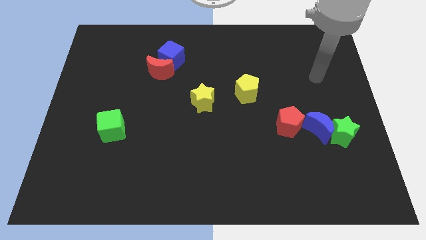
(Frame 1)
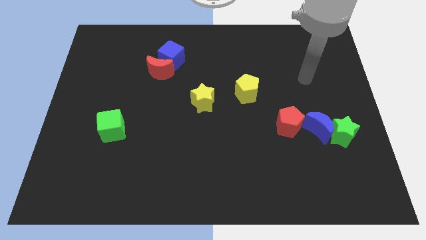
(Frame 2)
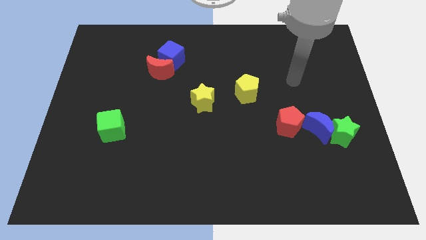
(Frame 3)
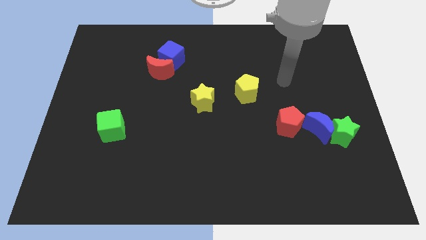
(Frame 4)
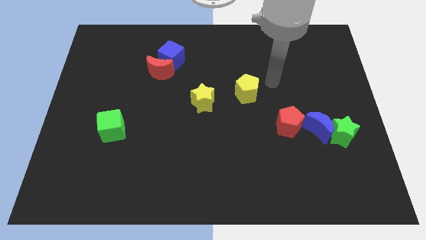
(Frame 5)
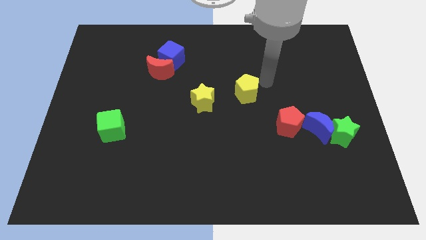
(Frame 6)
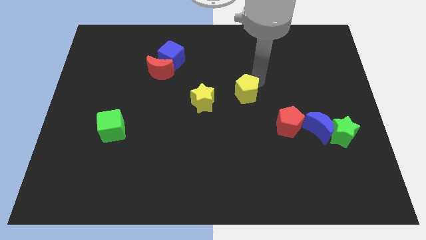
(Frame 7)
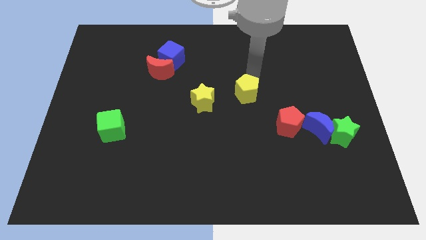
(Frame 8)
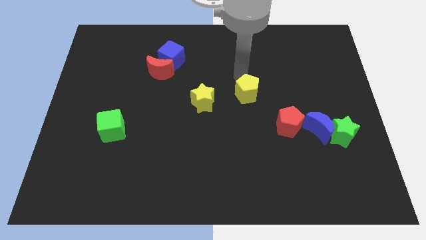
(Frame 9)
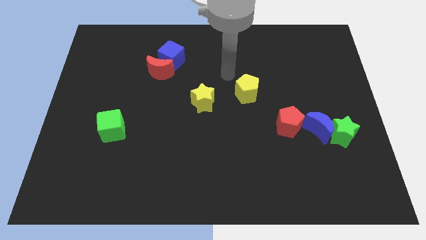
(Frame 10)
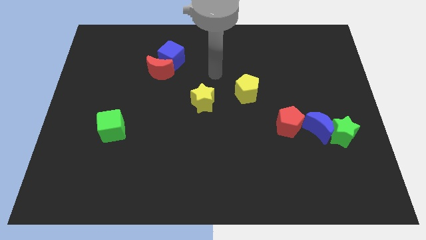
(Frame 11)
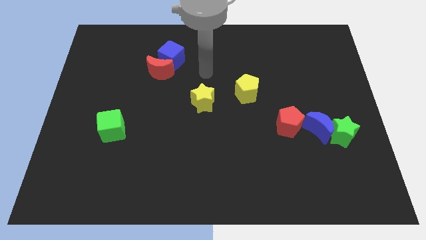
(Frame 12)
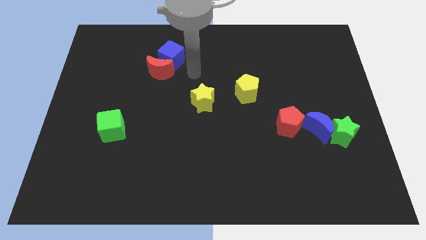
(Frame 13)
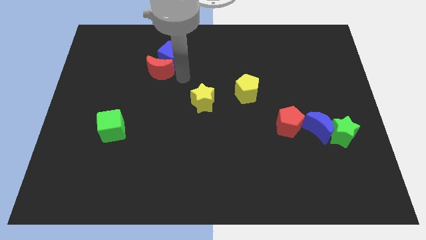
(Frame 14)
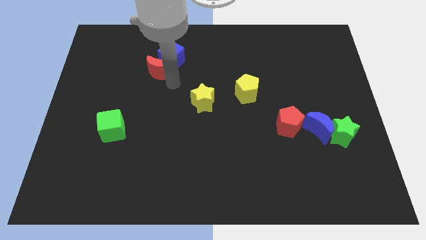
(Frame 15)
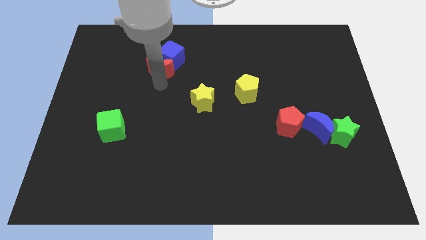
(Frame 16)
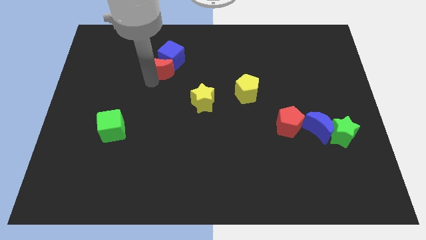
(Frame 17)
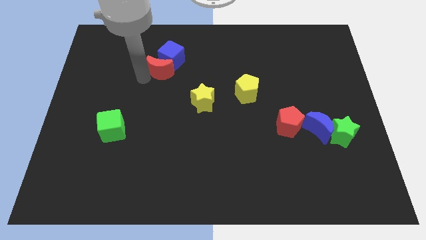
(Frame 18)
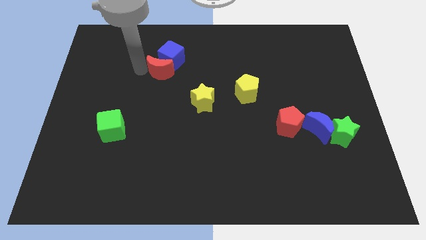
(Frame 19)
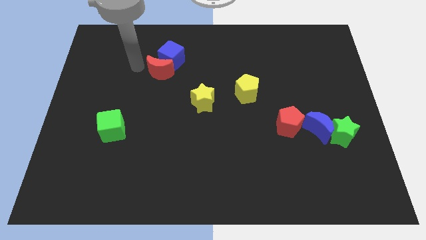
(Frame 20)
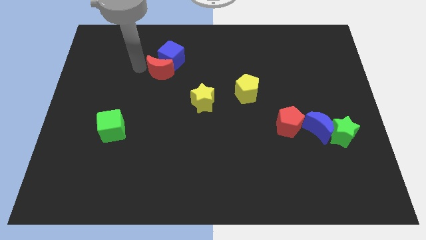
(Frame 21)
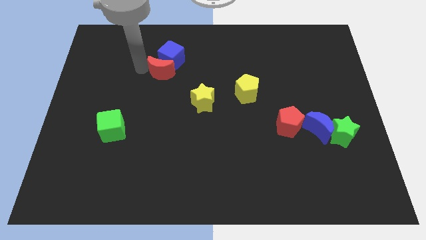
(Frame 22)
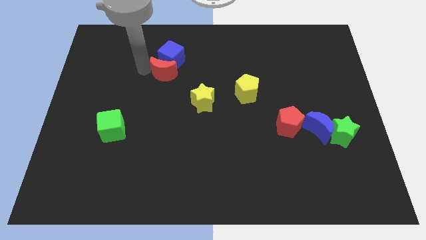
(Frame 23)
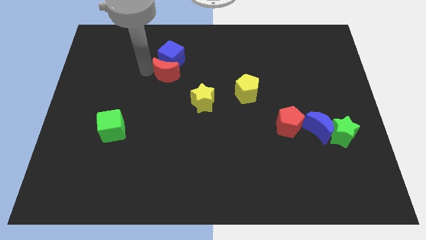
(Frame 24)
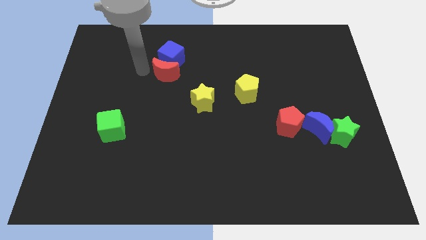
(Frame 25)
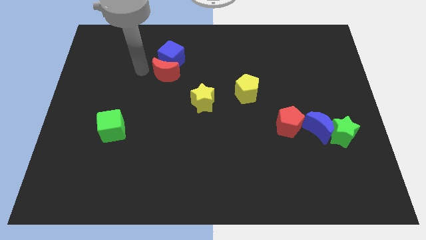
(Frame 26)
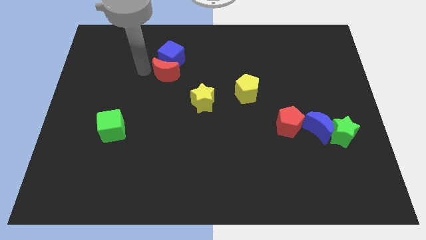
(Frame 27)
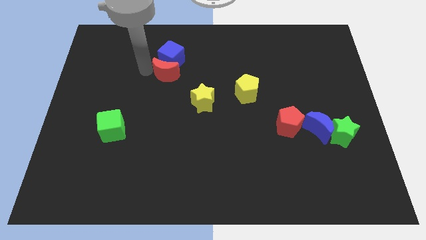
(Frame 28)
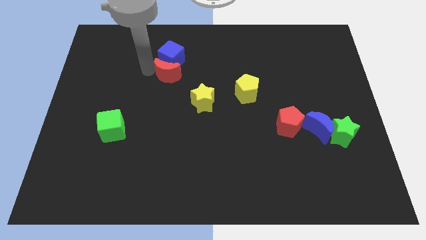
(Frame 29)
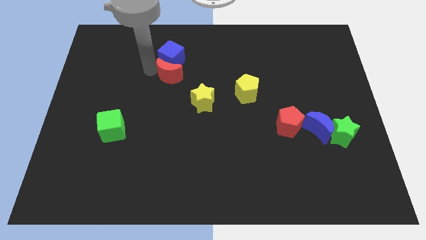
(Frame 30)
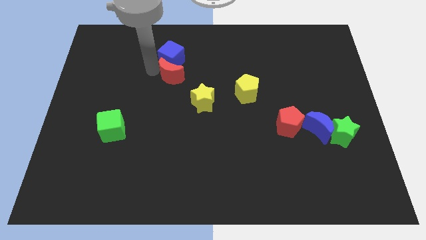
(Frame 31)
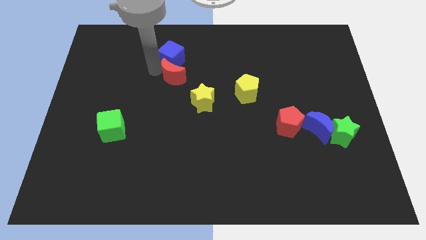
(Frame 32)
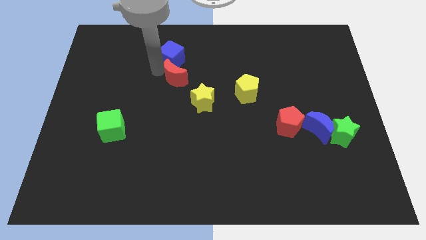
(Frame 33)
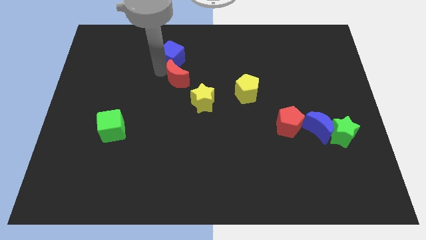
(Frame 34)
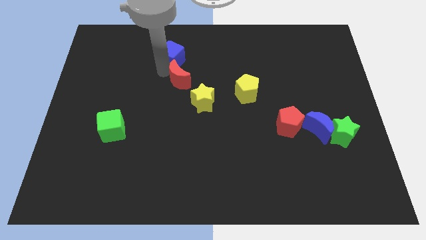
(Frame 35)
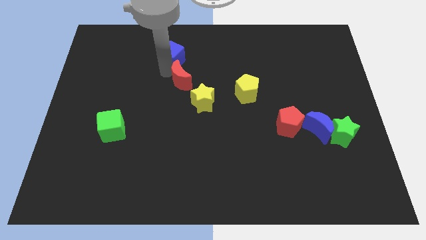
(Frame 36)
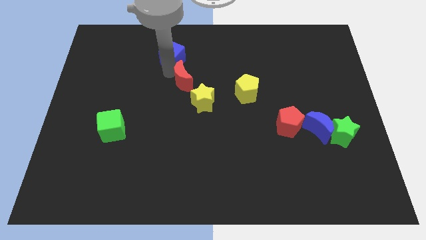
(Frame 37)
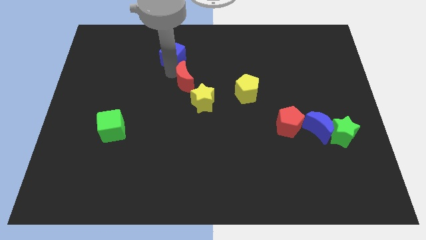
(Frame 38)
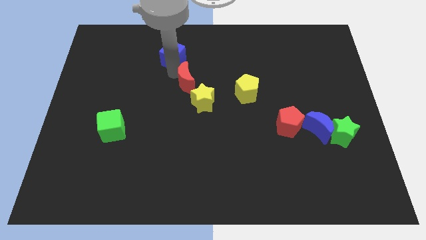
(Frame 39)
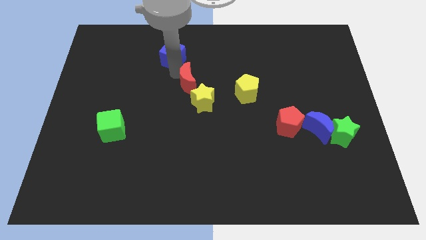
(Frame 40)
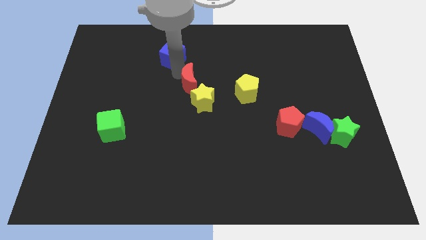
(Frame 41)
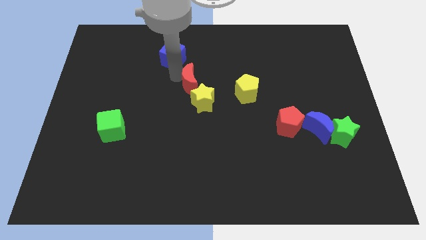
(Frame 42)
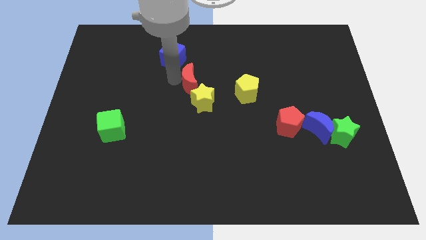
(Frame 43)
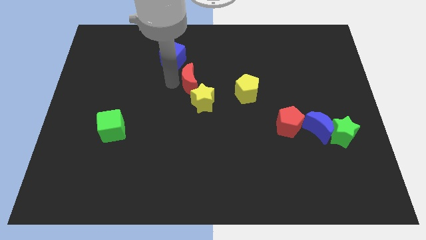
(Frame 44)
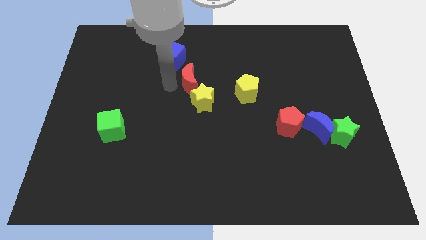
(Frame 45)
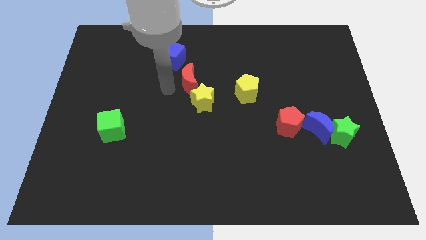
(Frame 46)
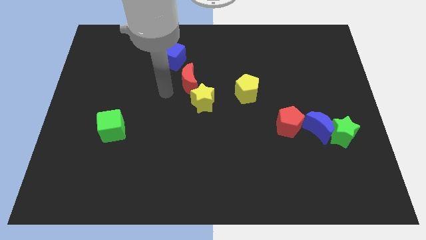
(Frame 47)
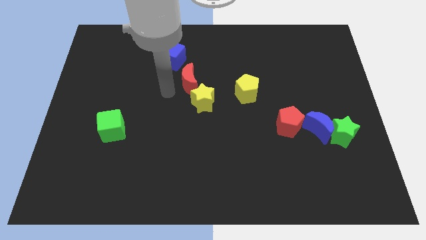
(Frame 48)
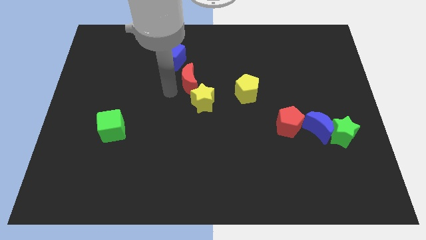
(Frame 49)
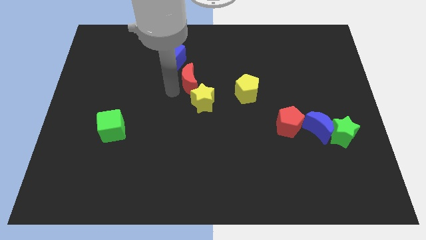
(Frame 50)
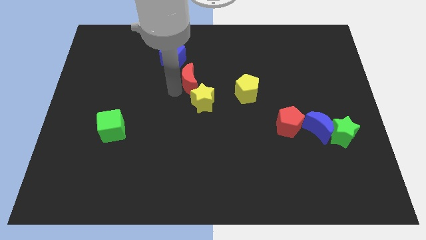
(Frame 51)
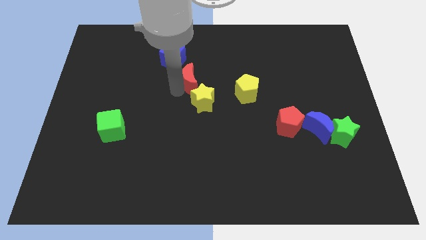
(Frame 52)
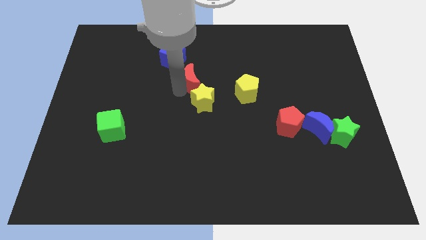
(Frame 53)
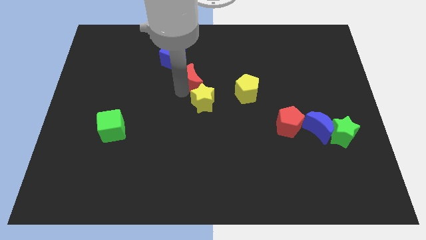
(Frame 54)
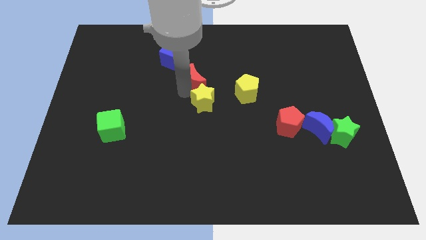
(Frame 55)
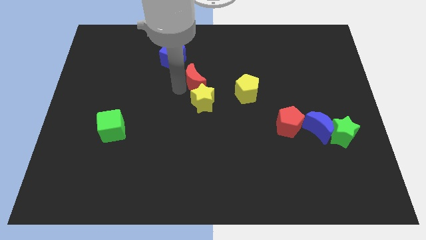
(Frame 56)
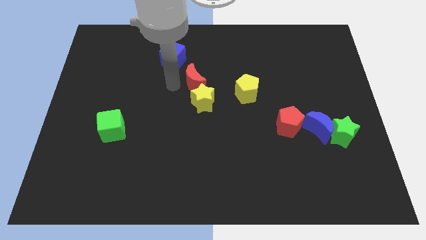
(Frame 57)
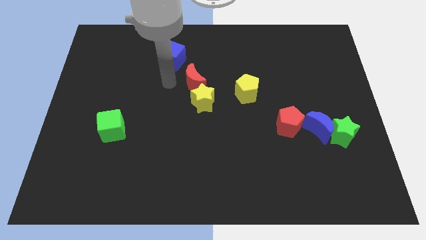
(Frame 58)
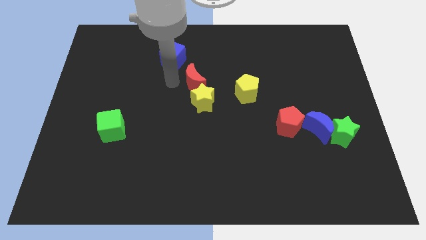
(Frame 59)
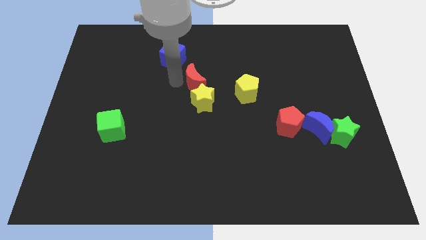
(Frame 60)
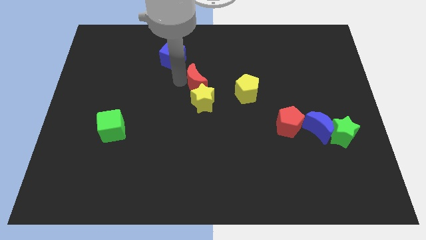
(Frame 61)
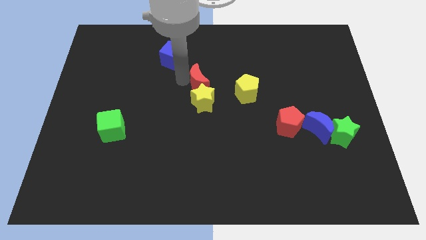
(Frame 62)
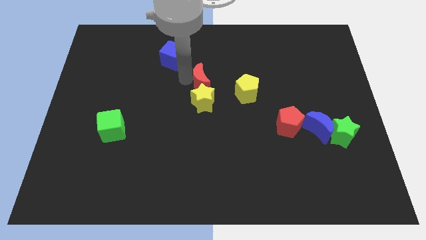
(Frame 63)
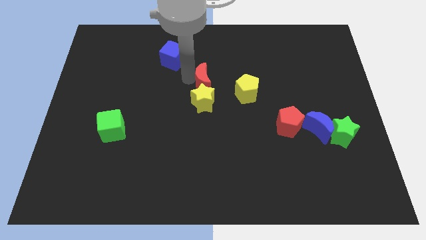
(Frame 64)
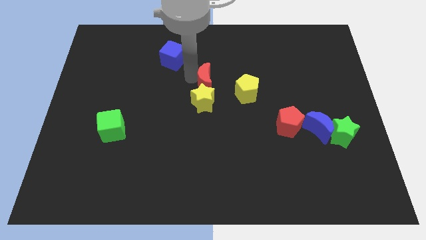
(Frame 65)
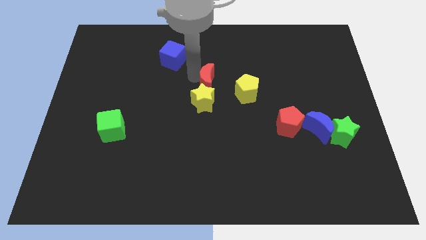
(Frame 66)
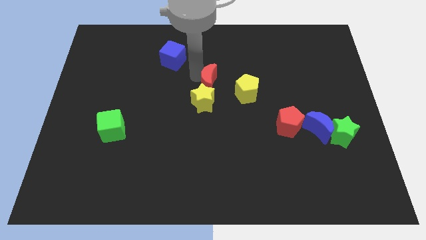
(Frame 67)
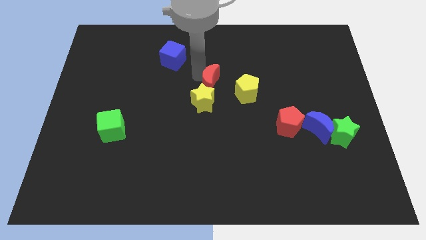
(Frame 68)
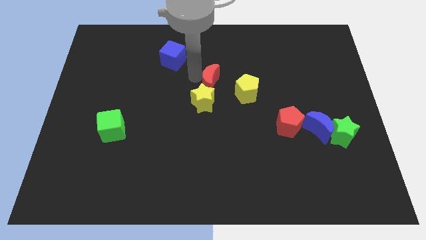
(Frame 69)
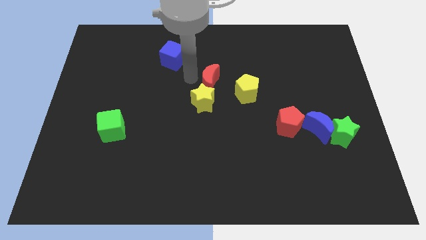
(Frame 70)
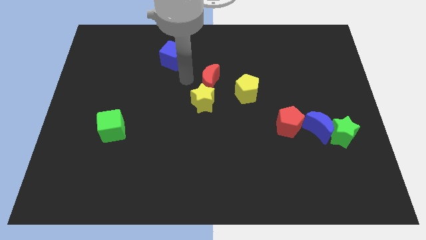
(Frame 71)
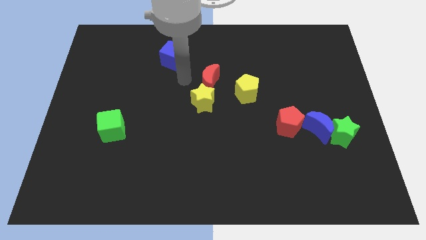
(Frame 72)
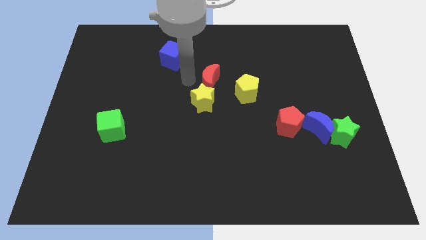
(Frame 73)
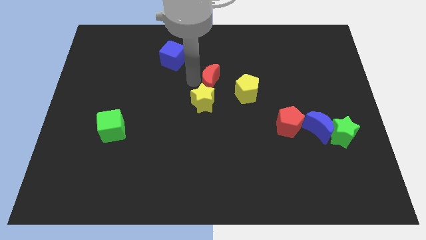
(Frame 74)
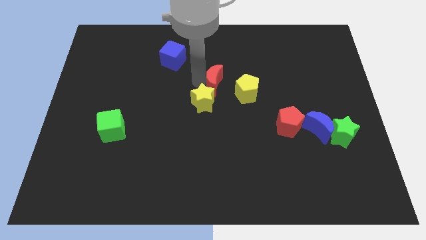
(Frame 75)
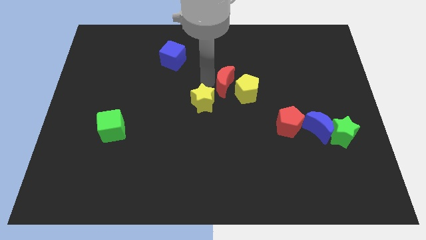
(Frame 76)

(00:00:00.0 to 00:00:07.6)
push the red moon towards the yellow pentagon

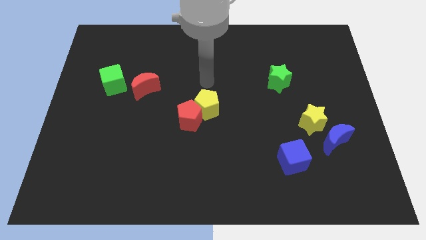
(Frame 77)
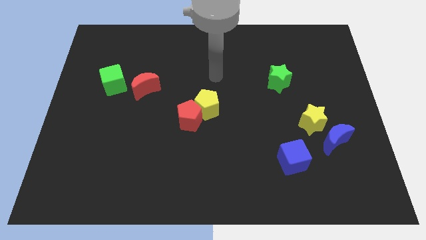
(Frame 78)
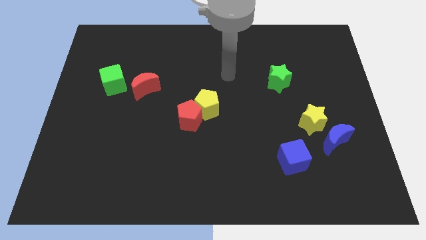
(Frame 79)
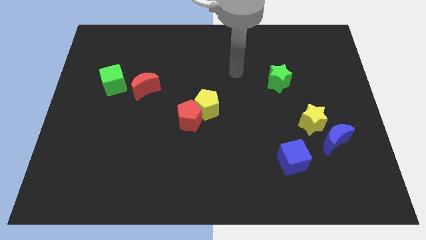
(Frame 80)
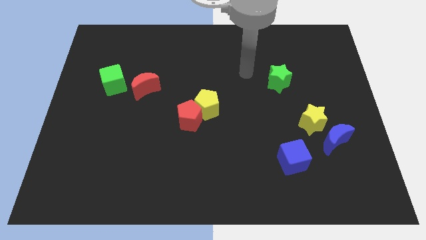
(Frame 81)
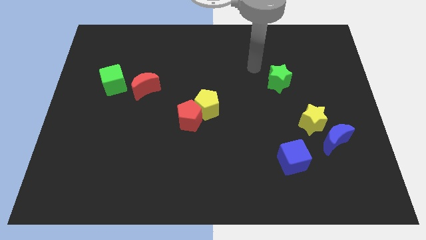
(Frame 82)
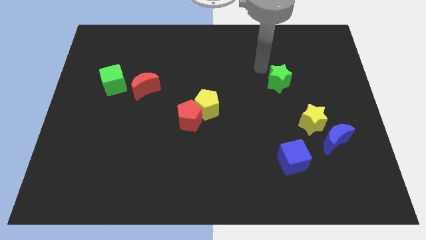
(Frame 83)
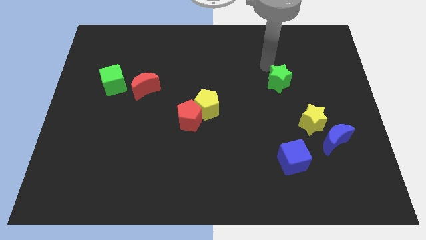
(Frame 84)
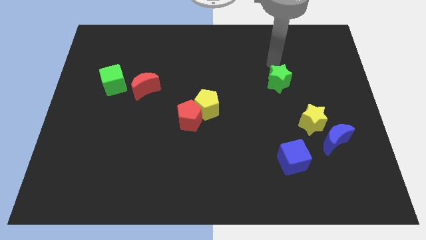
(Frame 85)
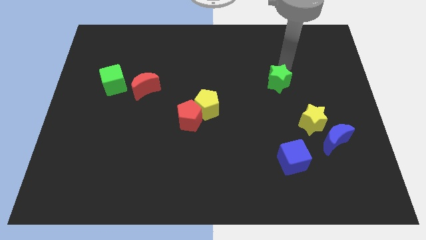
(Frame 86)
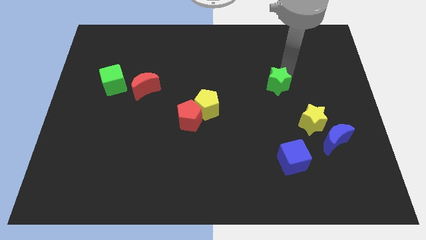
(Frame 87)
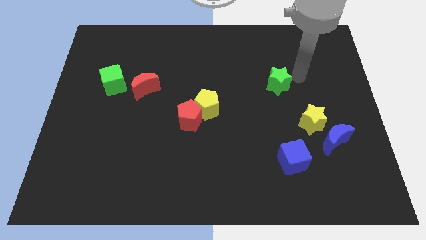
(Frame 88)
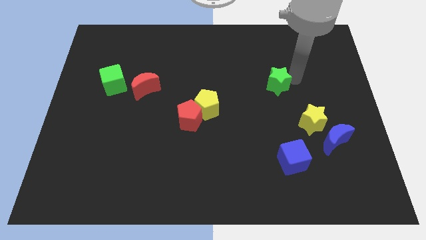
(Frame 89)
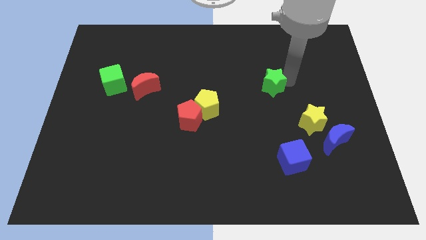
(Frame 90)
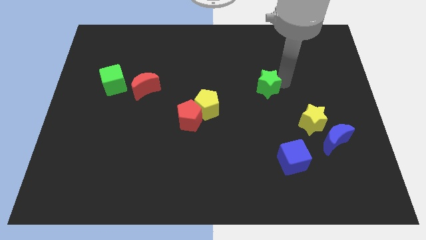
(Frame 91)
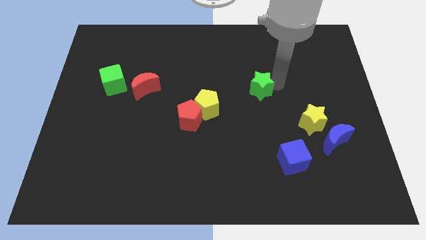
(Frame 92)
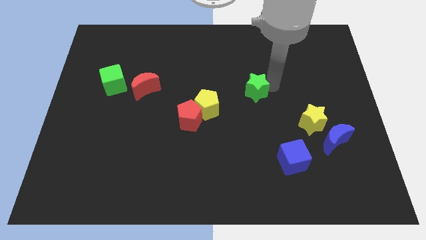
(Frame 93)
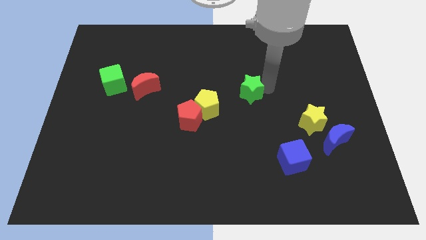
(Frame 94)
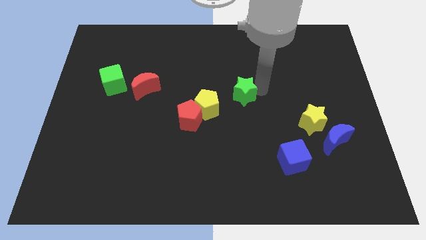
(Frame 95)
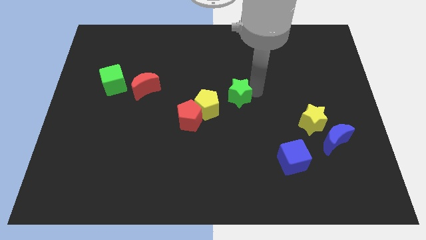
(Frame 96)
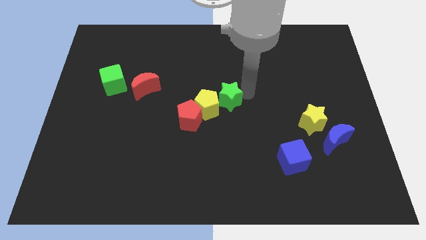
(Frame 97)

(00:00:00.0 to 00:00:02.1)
move the green star towards the yellow pentagon
